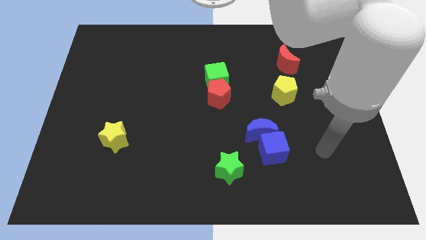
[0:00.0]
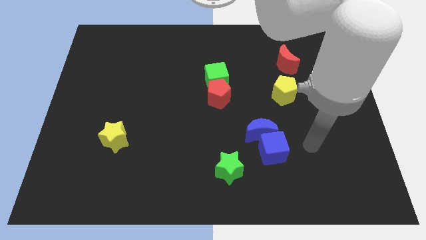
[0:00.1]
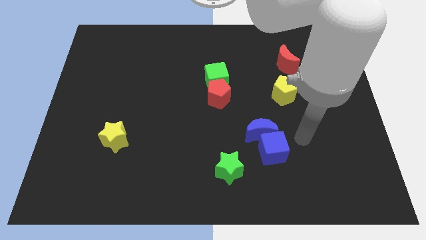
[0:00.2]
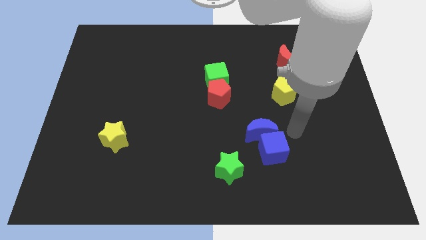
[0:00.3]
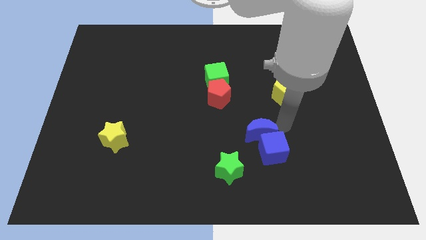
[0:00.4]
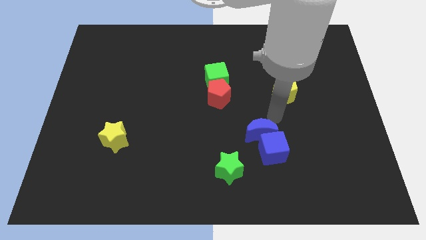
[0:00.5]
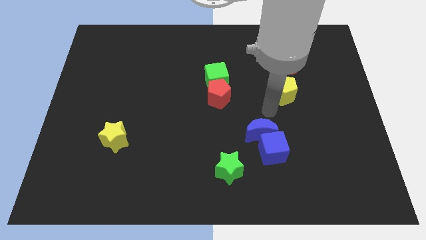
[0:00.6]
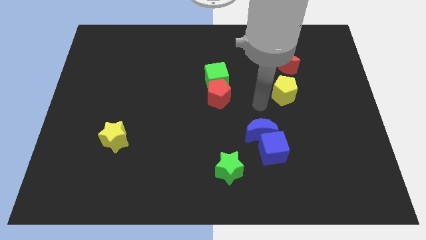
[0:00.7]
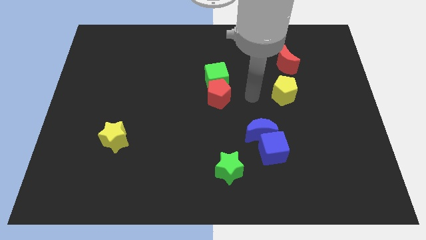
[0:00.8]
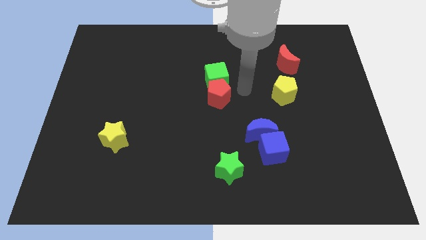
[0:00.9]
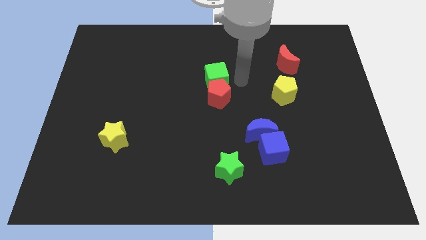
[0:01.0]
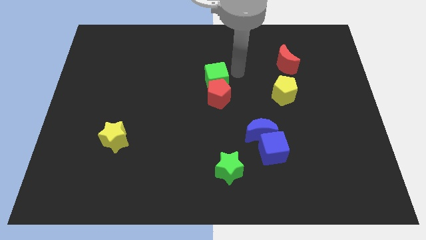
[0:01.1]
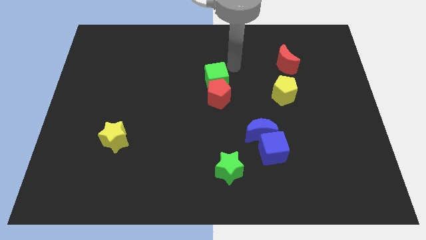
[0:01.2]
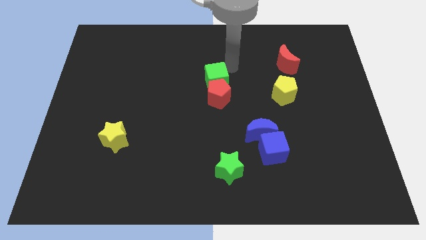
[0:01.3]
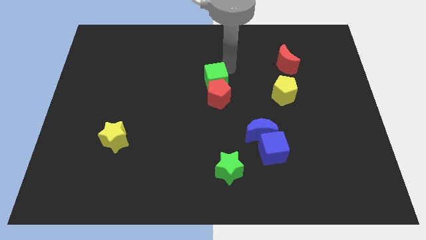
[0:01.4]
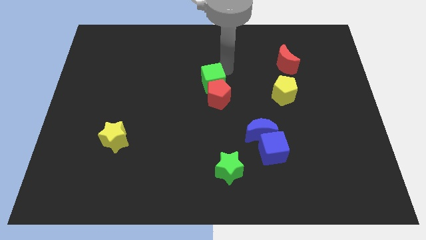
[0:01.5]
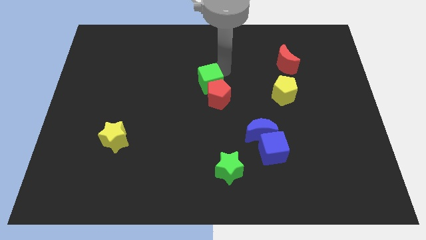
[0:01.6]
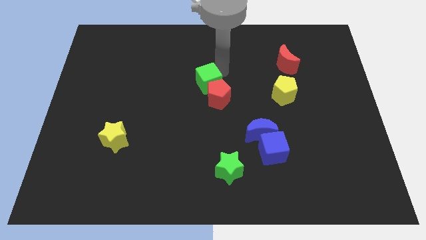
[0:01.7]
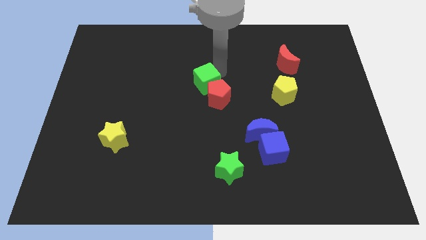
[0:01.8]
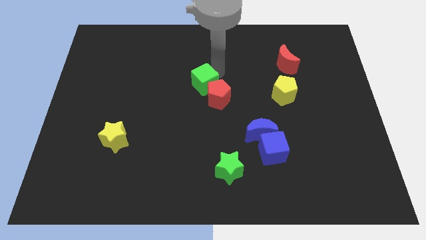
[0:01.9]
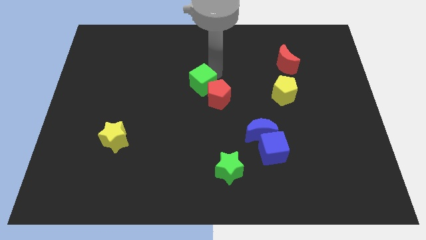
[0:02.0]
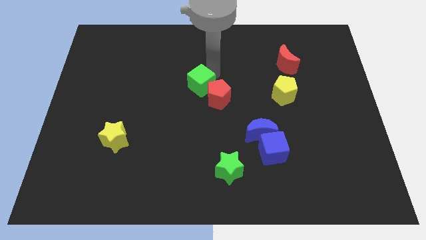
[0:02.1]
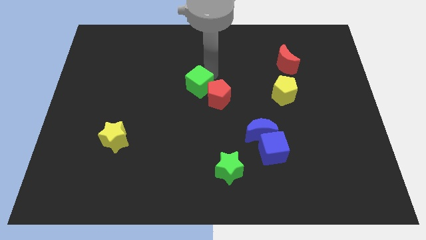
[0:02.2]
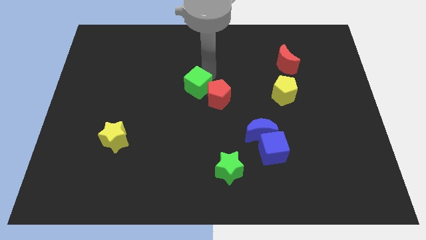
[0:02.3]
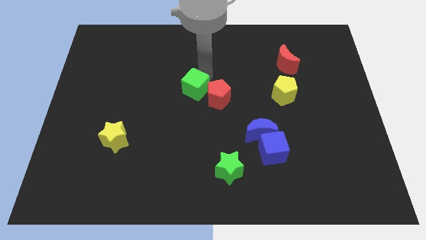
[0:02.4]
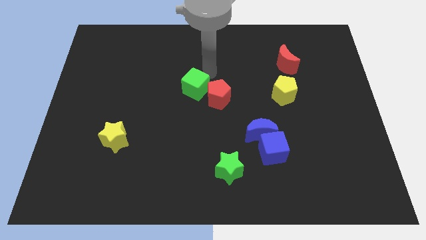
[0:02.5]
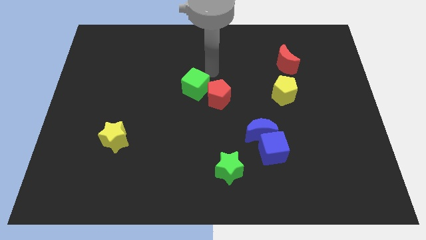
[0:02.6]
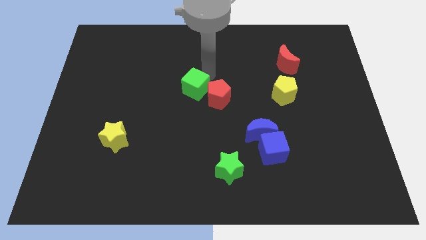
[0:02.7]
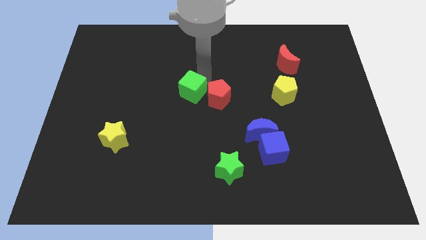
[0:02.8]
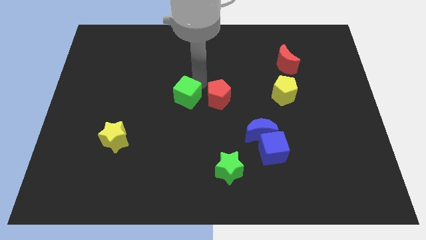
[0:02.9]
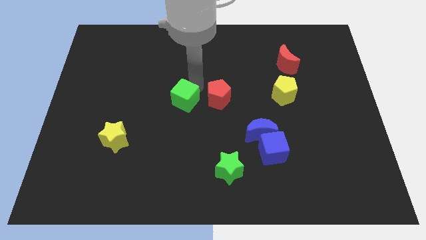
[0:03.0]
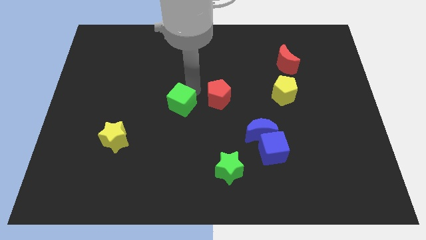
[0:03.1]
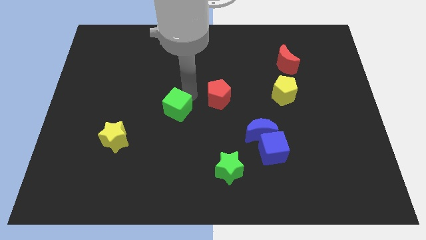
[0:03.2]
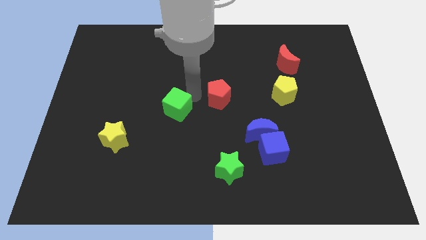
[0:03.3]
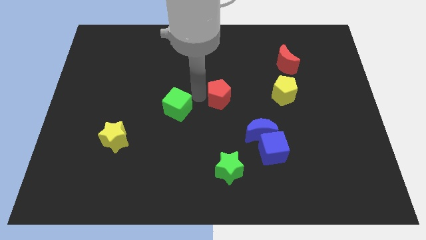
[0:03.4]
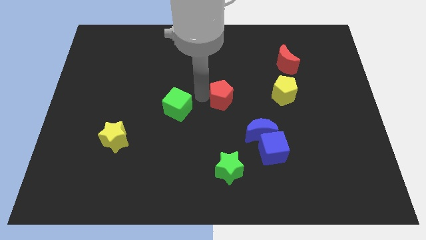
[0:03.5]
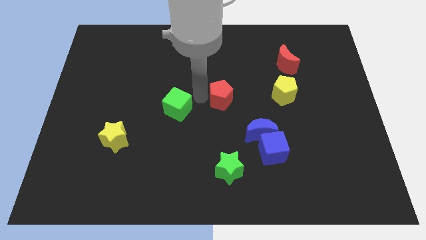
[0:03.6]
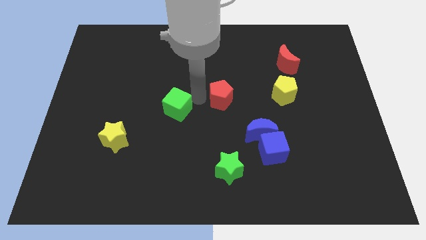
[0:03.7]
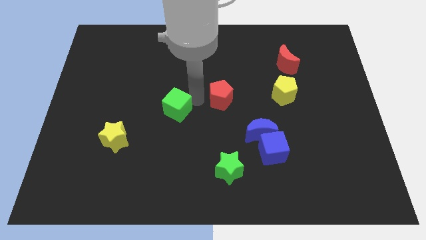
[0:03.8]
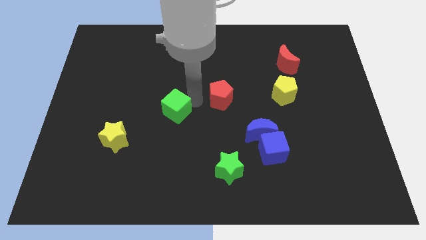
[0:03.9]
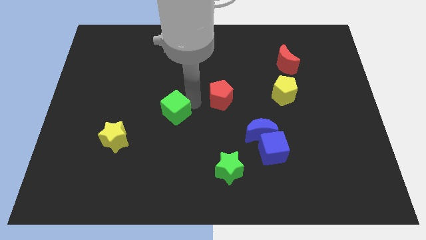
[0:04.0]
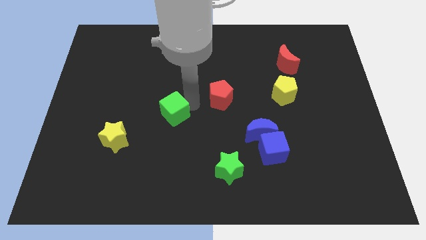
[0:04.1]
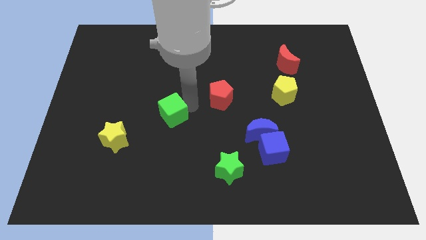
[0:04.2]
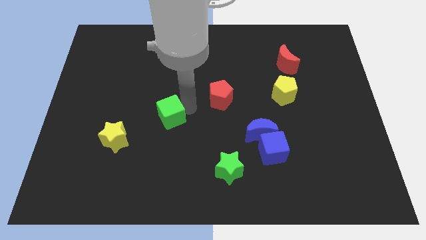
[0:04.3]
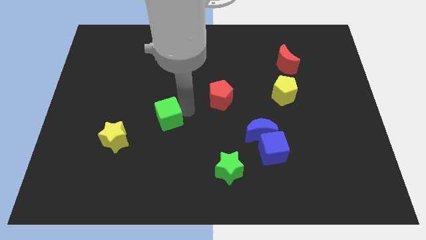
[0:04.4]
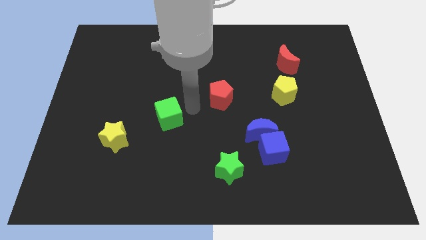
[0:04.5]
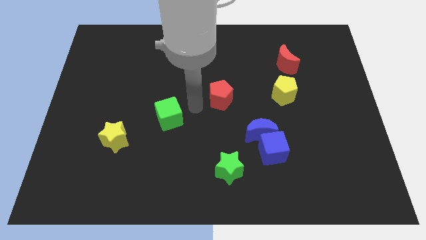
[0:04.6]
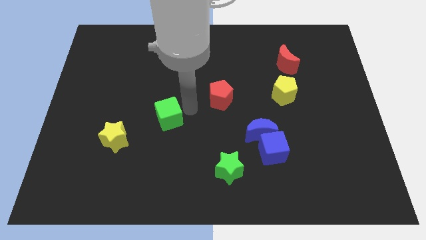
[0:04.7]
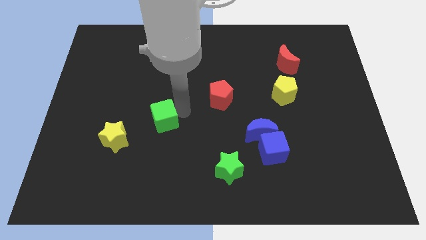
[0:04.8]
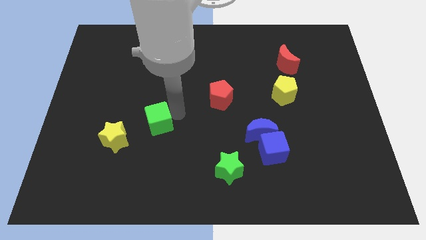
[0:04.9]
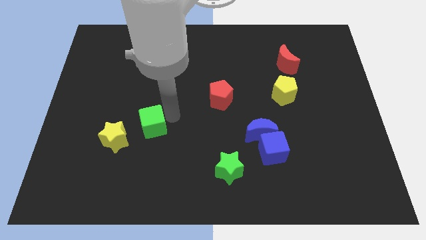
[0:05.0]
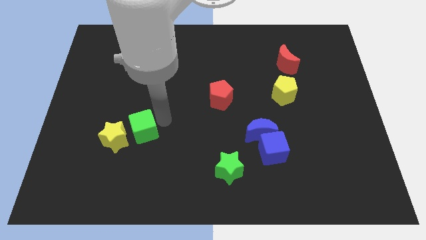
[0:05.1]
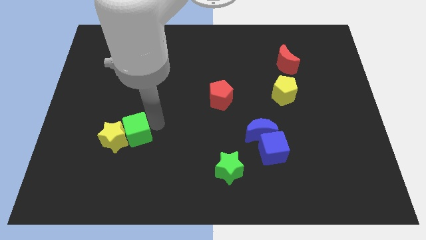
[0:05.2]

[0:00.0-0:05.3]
put the green cube towards the yellow star

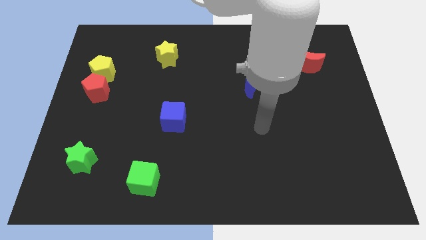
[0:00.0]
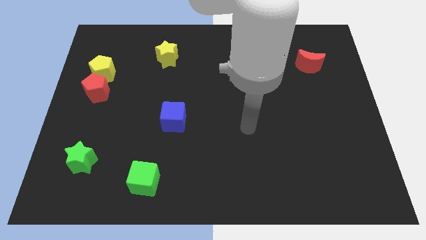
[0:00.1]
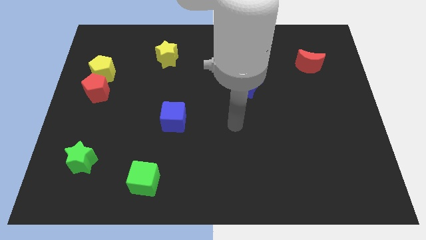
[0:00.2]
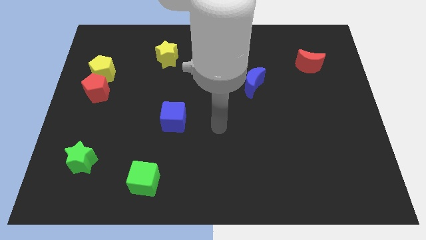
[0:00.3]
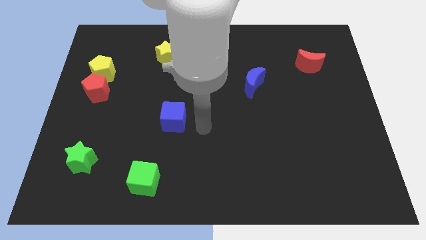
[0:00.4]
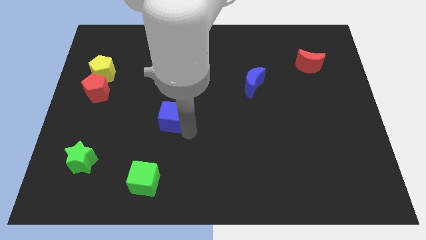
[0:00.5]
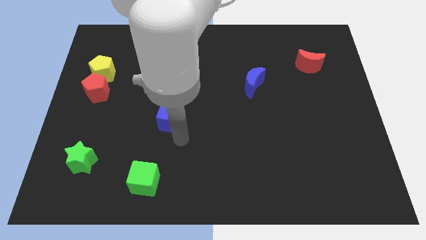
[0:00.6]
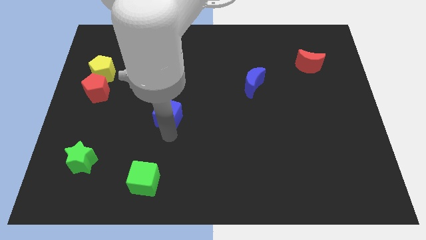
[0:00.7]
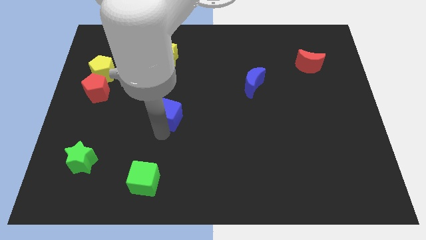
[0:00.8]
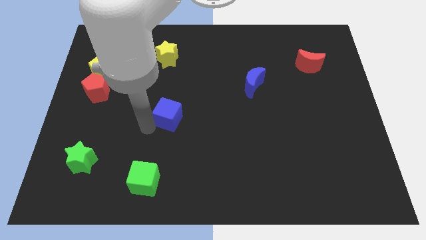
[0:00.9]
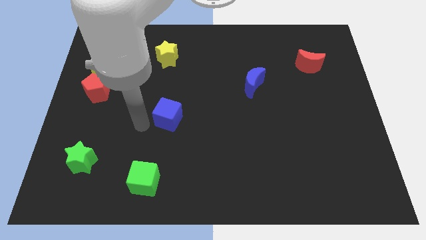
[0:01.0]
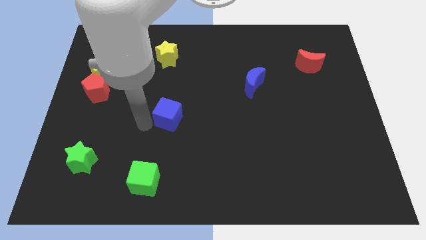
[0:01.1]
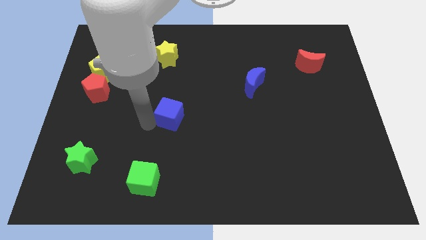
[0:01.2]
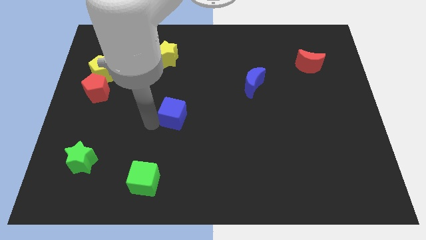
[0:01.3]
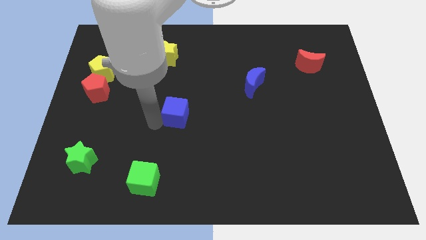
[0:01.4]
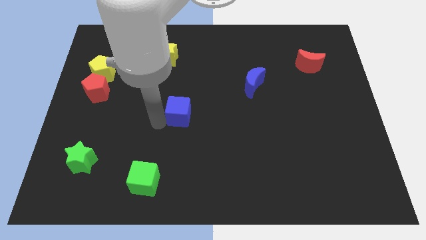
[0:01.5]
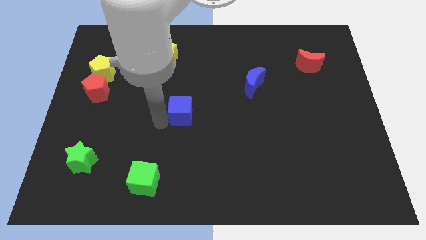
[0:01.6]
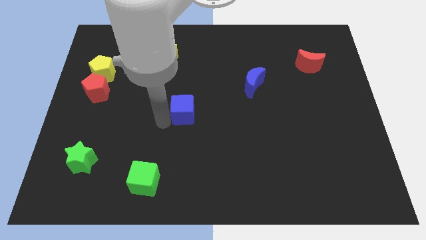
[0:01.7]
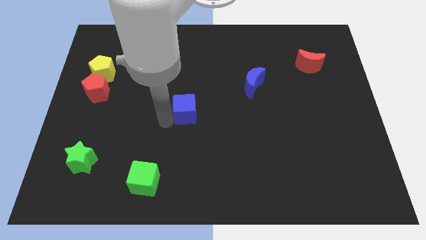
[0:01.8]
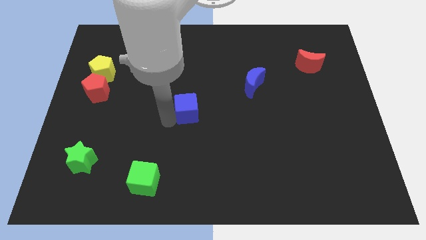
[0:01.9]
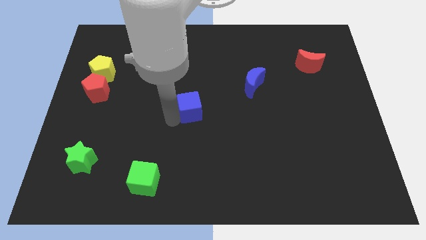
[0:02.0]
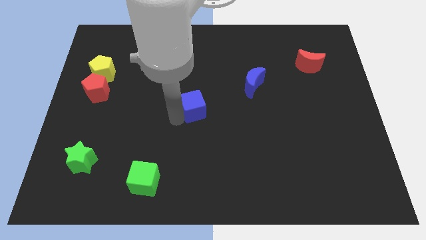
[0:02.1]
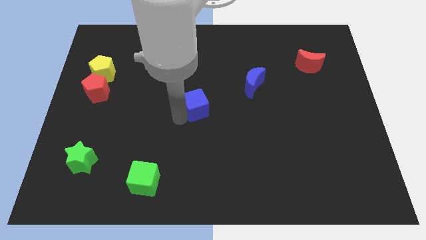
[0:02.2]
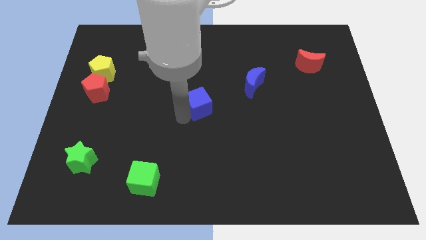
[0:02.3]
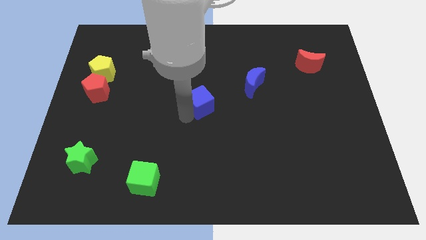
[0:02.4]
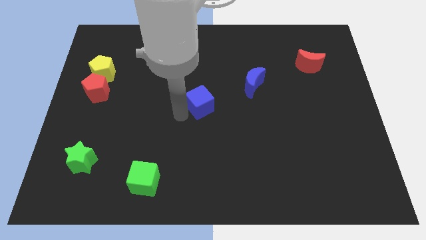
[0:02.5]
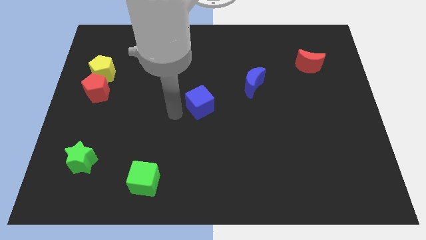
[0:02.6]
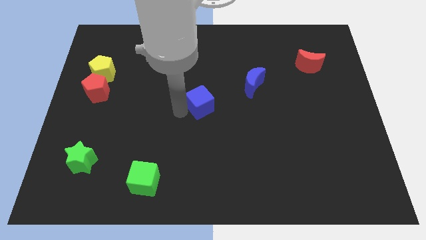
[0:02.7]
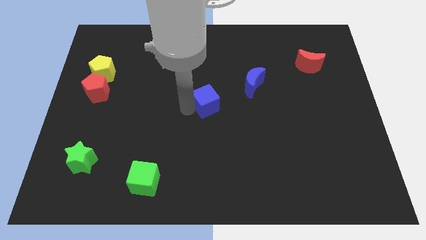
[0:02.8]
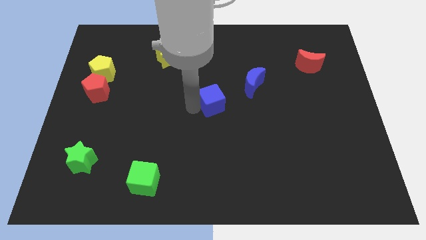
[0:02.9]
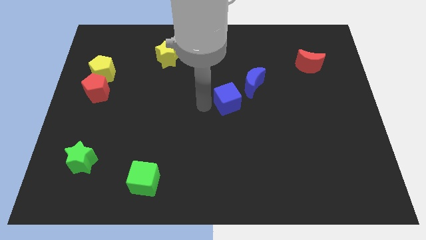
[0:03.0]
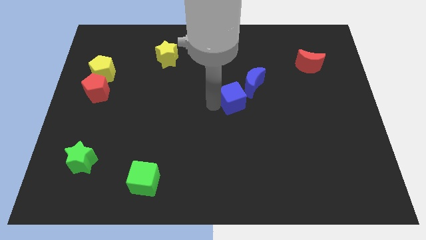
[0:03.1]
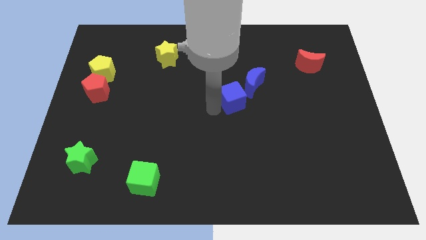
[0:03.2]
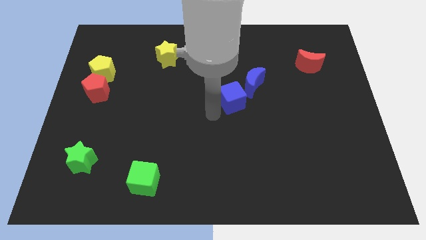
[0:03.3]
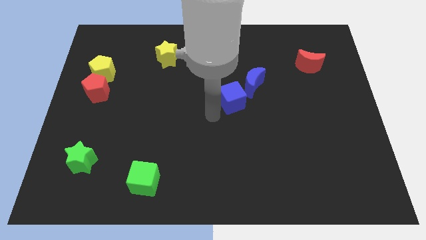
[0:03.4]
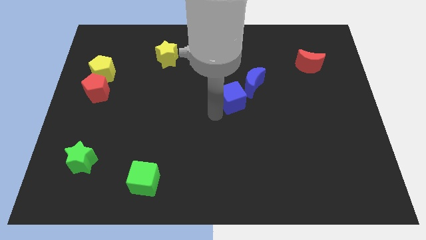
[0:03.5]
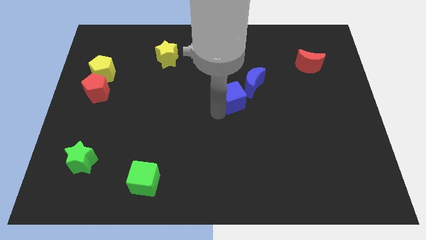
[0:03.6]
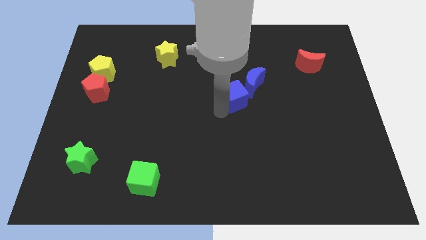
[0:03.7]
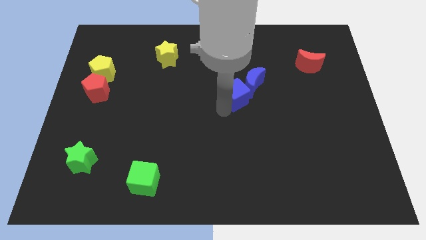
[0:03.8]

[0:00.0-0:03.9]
move the blue cube towards the blue moon
